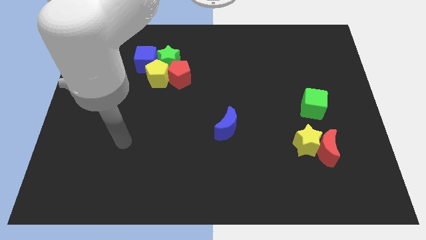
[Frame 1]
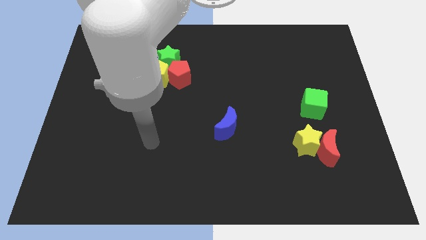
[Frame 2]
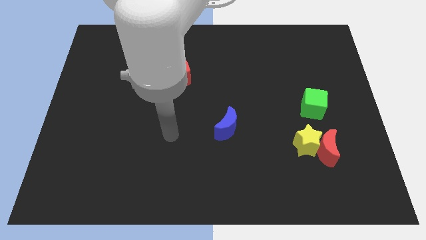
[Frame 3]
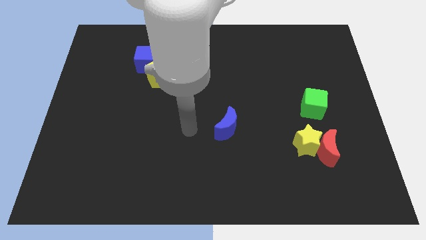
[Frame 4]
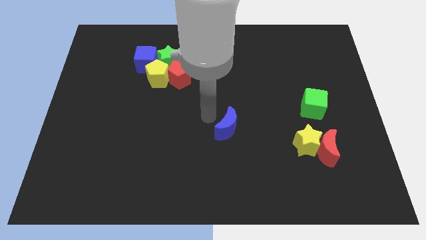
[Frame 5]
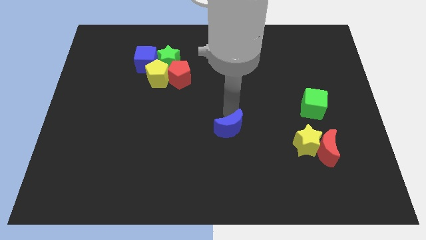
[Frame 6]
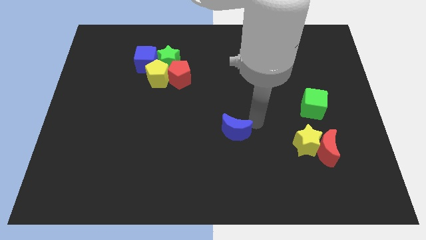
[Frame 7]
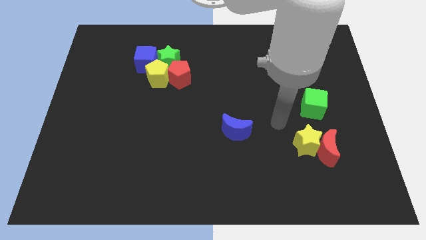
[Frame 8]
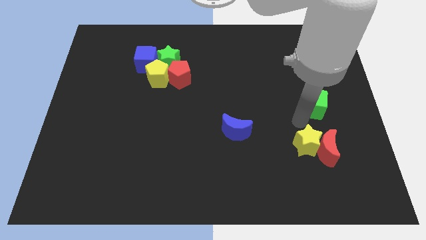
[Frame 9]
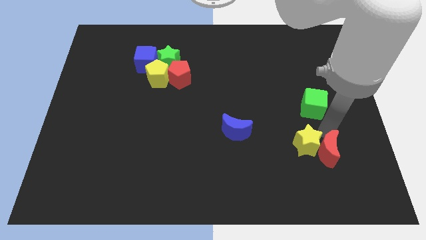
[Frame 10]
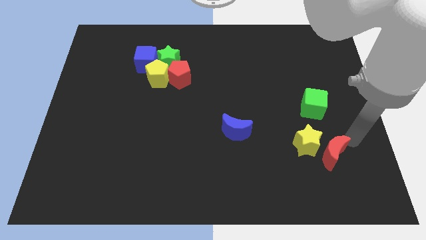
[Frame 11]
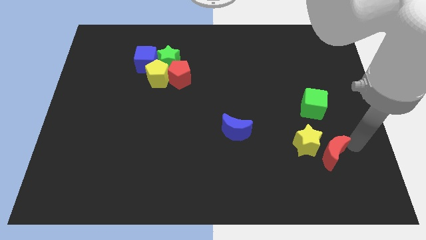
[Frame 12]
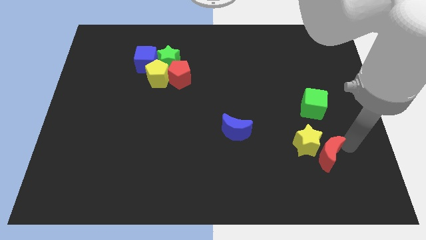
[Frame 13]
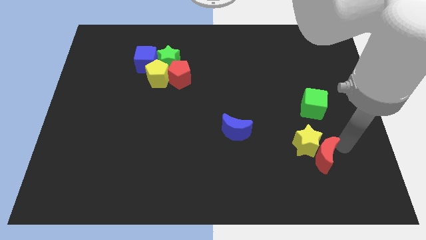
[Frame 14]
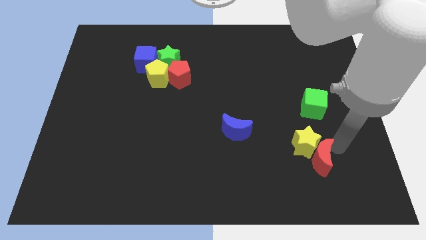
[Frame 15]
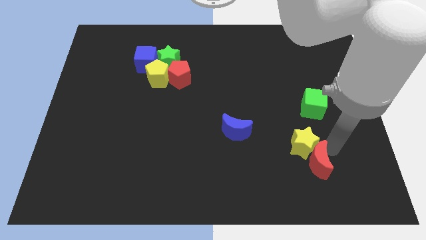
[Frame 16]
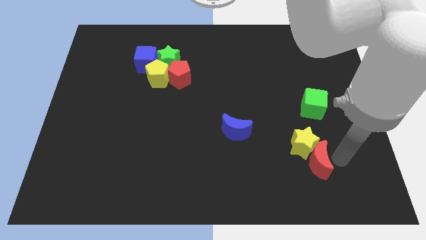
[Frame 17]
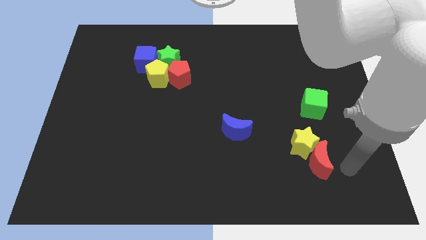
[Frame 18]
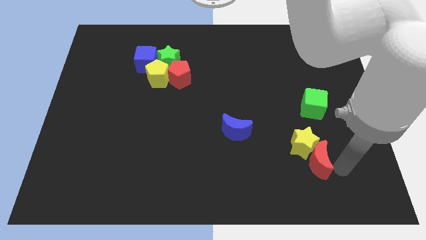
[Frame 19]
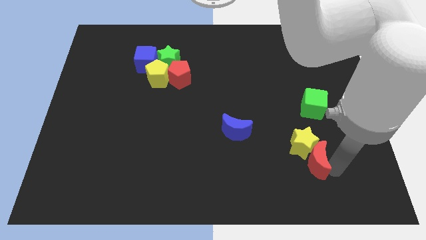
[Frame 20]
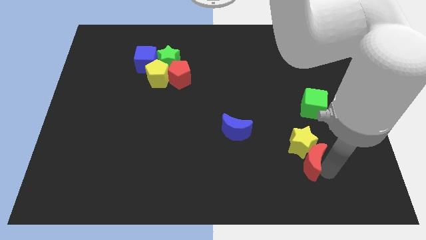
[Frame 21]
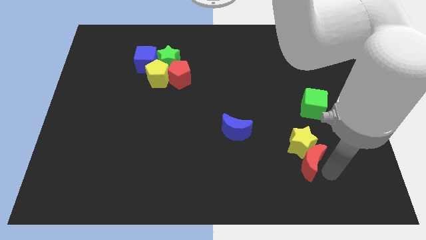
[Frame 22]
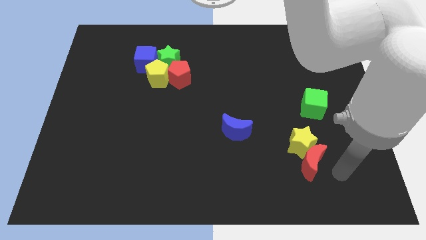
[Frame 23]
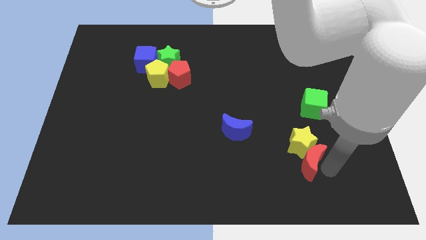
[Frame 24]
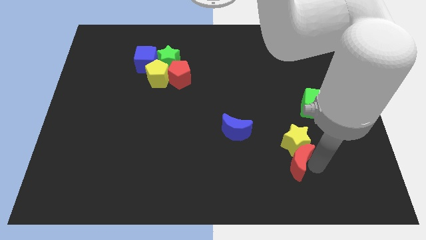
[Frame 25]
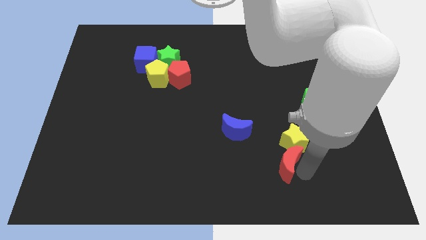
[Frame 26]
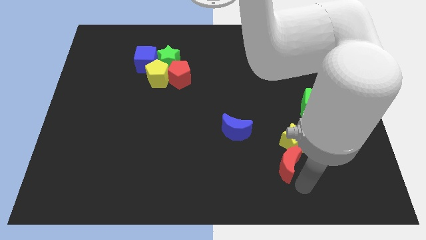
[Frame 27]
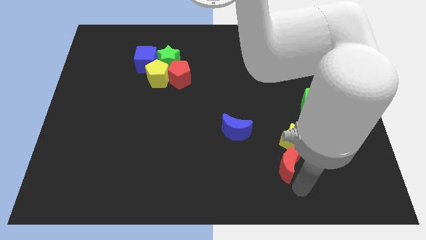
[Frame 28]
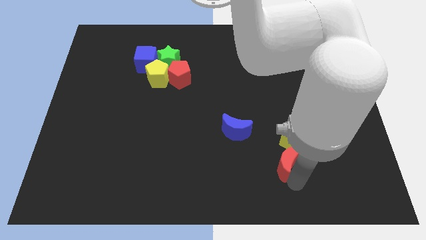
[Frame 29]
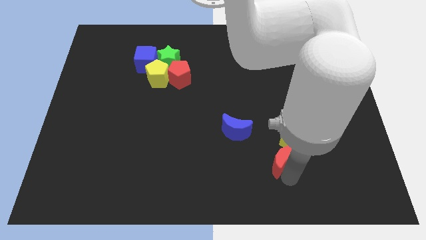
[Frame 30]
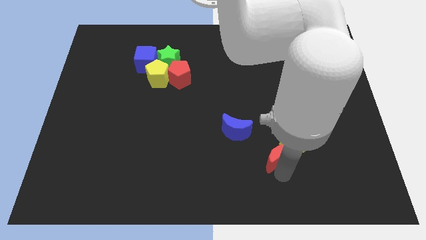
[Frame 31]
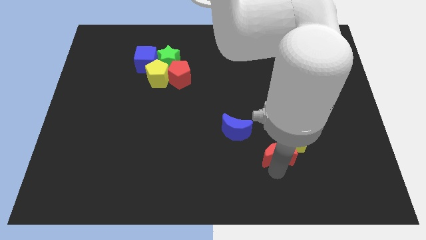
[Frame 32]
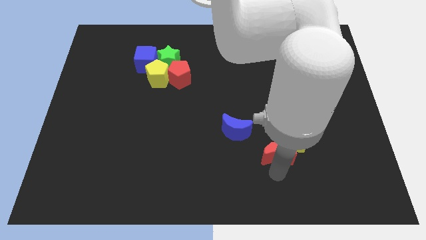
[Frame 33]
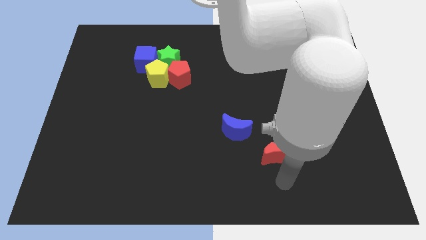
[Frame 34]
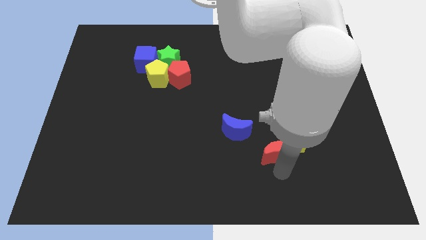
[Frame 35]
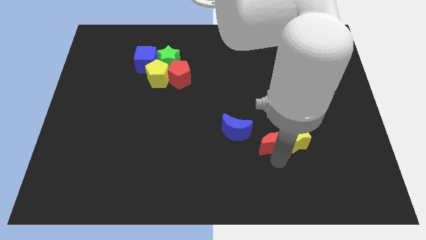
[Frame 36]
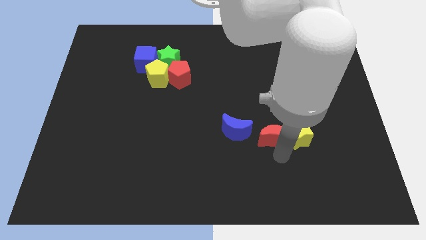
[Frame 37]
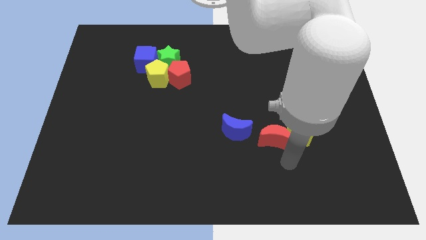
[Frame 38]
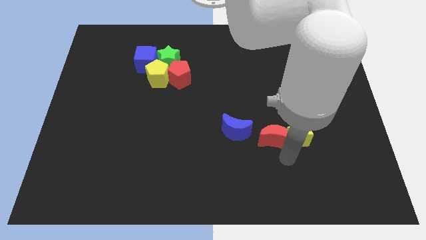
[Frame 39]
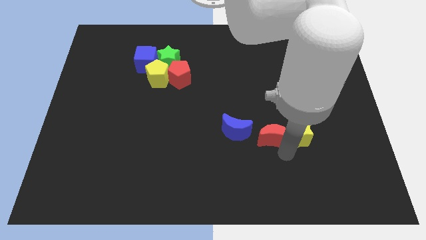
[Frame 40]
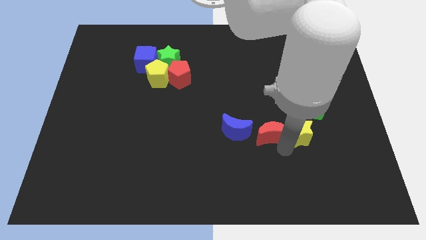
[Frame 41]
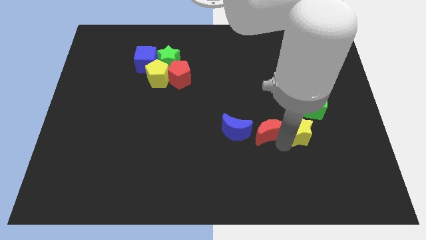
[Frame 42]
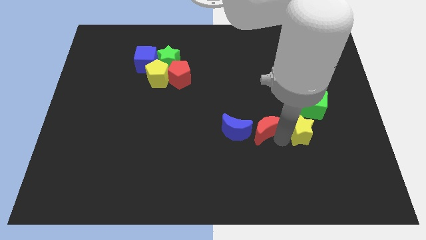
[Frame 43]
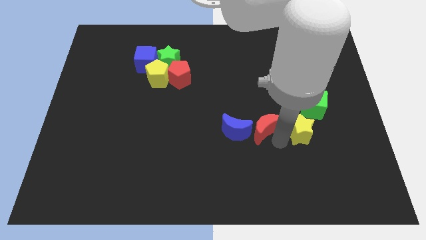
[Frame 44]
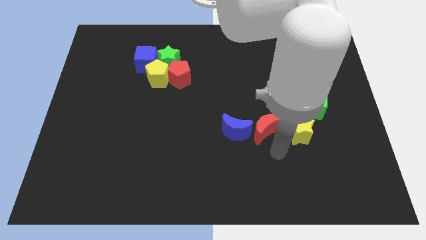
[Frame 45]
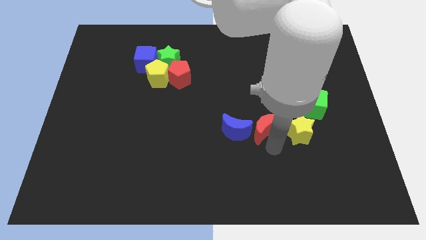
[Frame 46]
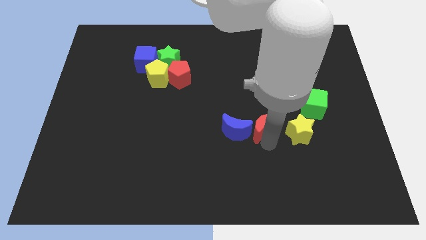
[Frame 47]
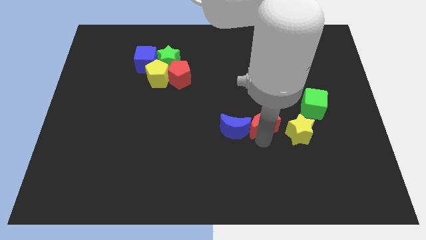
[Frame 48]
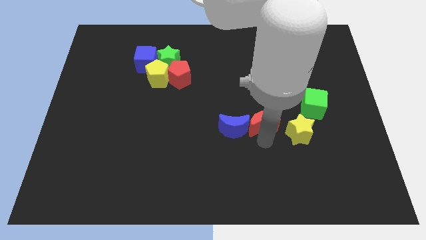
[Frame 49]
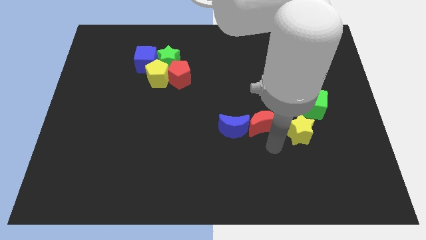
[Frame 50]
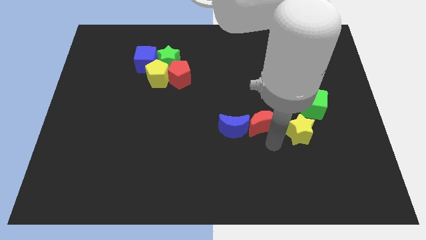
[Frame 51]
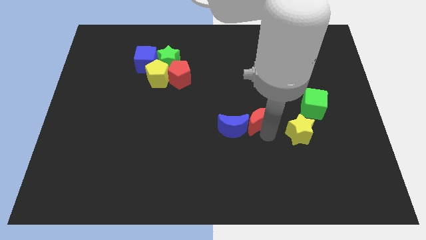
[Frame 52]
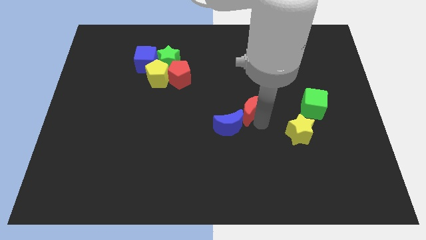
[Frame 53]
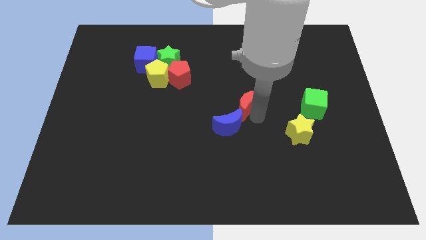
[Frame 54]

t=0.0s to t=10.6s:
move the red moon up and left

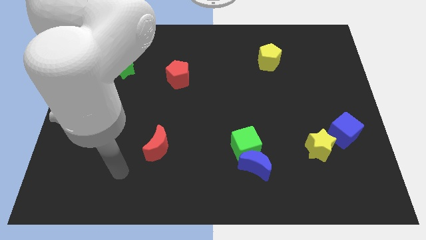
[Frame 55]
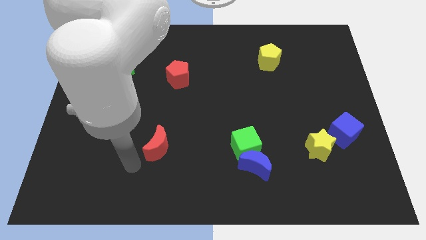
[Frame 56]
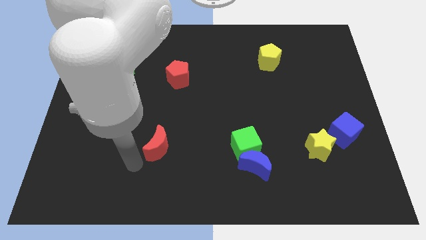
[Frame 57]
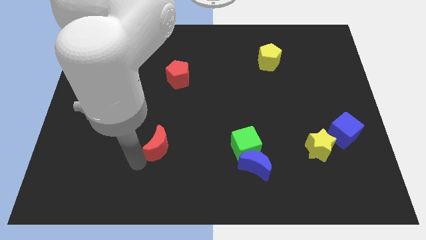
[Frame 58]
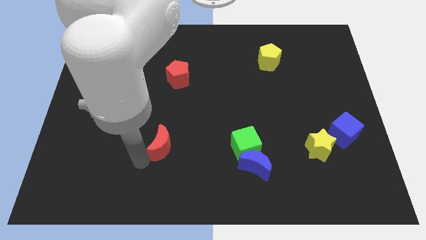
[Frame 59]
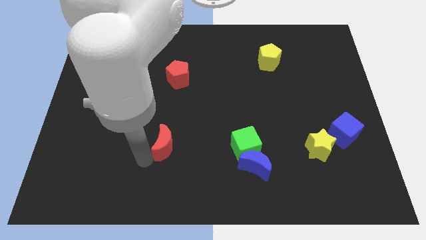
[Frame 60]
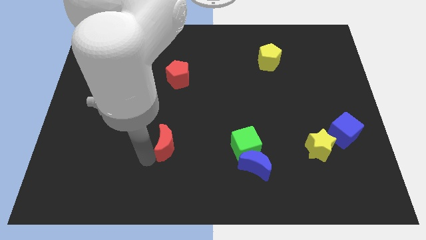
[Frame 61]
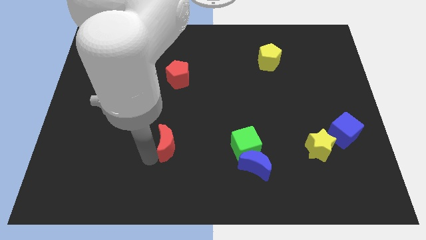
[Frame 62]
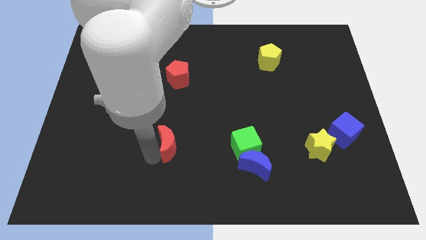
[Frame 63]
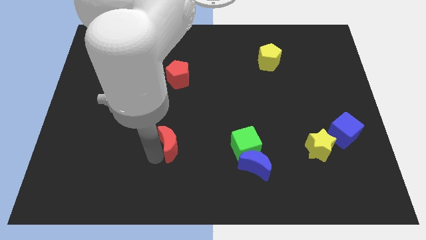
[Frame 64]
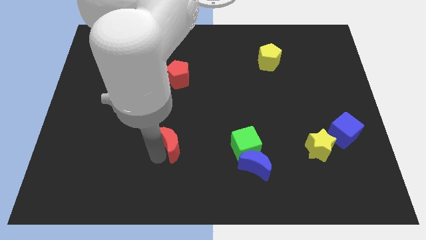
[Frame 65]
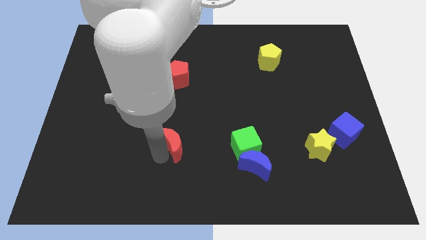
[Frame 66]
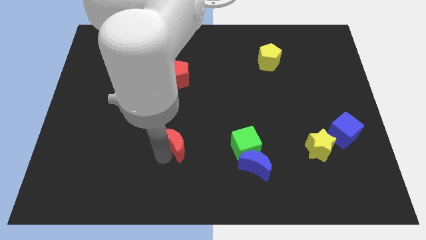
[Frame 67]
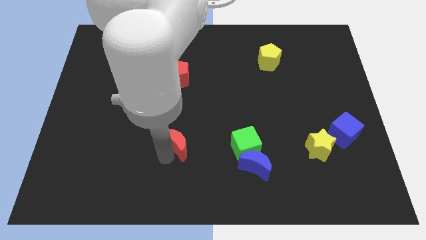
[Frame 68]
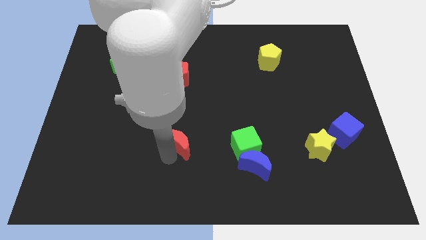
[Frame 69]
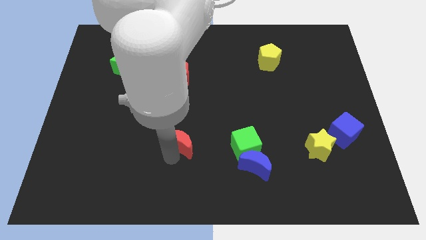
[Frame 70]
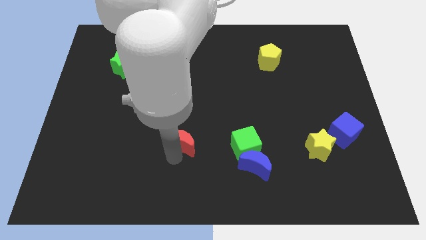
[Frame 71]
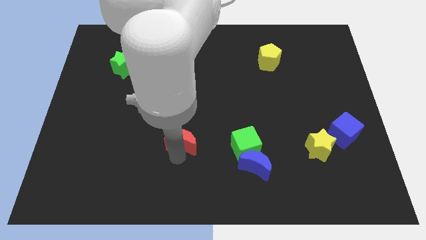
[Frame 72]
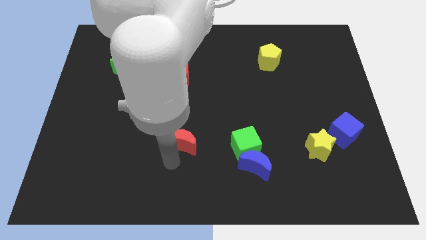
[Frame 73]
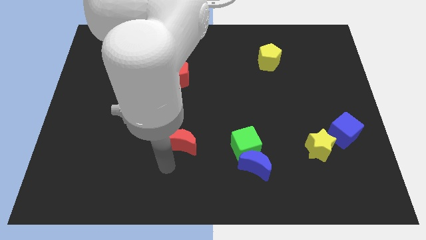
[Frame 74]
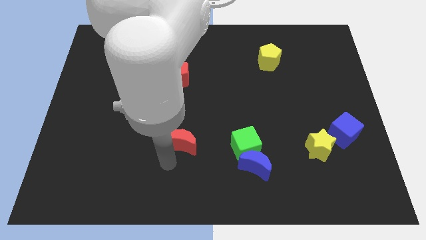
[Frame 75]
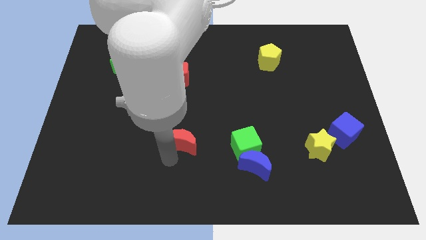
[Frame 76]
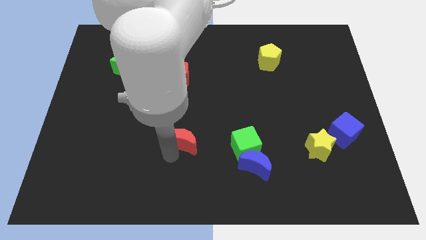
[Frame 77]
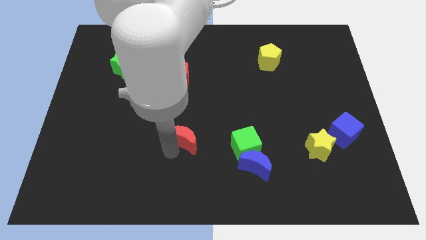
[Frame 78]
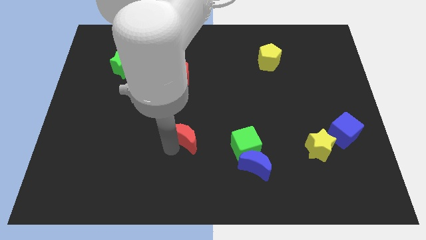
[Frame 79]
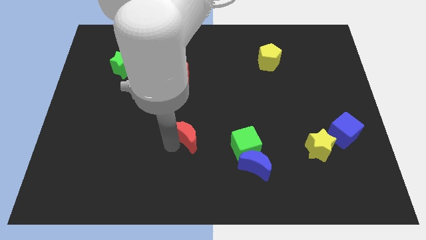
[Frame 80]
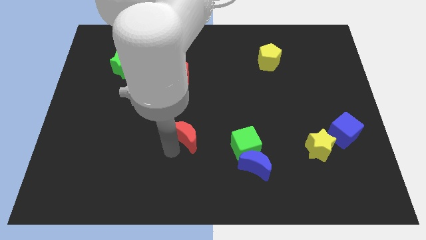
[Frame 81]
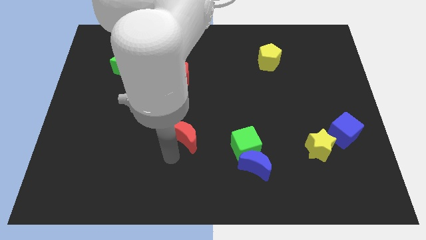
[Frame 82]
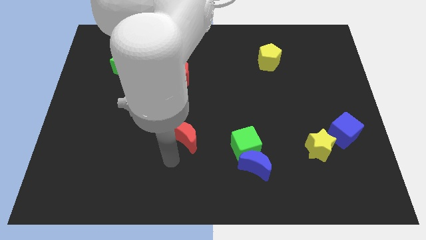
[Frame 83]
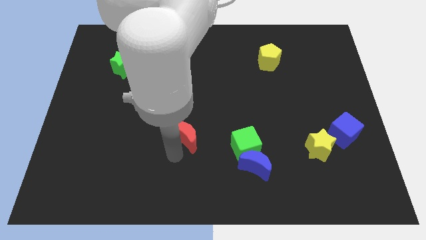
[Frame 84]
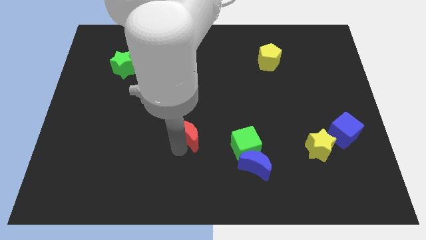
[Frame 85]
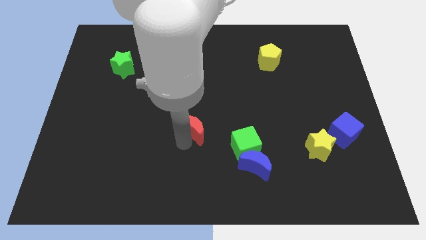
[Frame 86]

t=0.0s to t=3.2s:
push the red moon upwards and then right slightly
